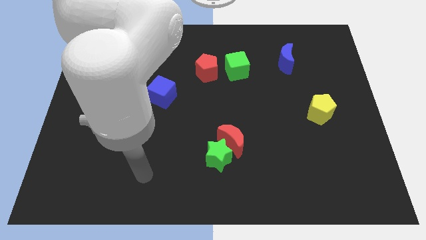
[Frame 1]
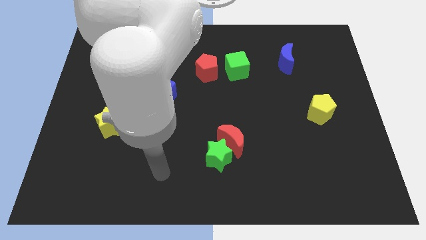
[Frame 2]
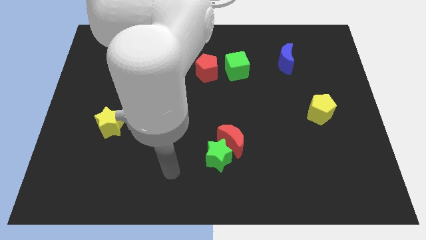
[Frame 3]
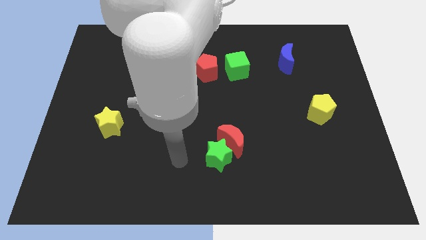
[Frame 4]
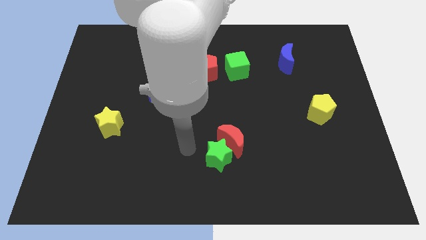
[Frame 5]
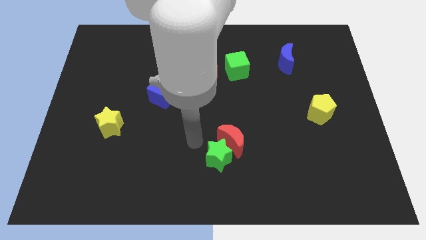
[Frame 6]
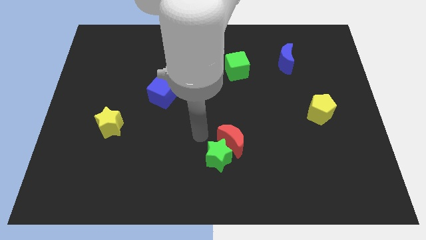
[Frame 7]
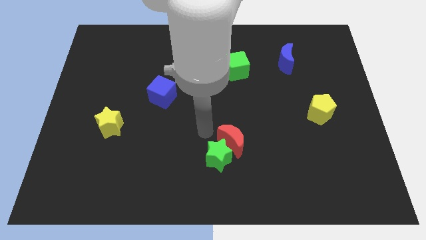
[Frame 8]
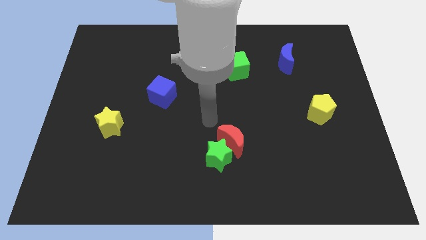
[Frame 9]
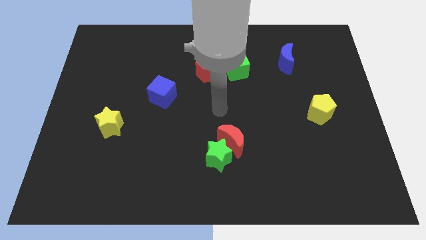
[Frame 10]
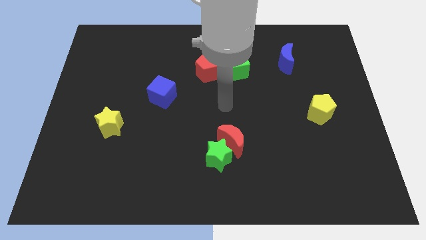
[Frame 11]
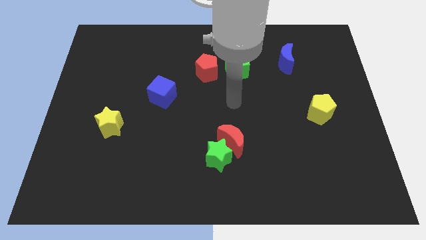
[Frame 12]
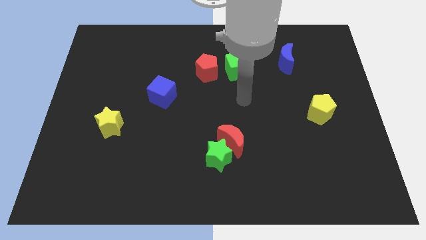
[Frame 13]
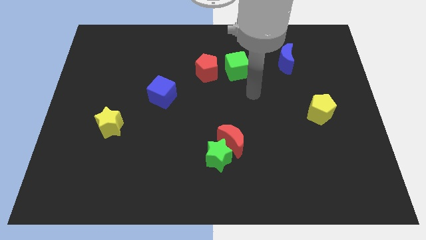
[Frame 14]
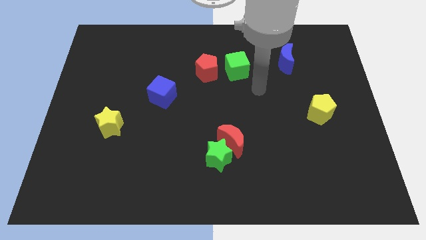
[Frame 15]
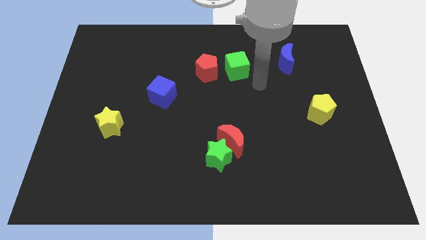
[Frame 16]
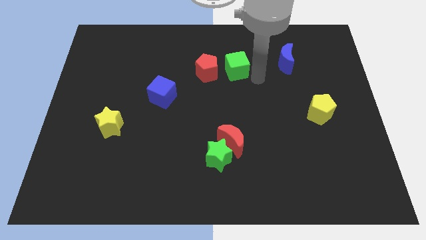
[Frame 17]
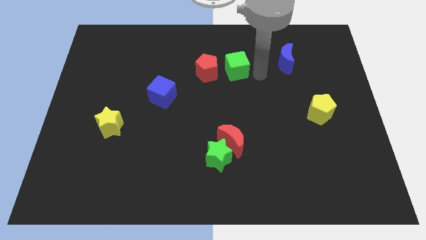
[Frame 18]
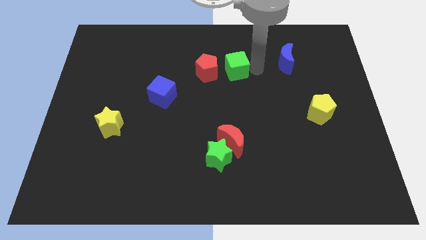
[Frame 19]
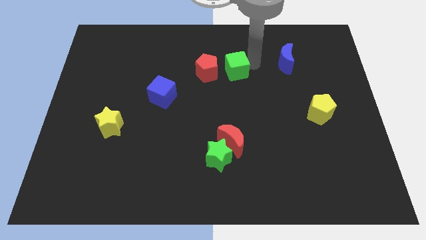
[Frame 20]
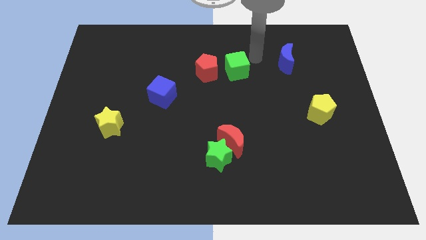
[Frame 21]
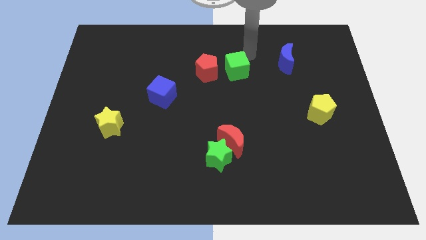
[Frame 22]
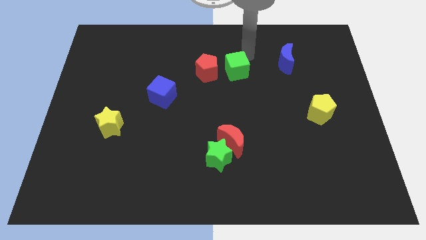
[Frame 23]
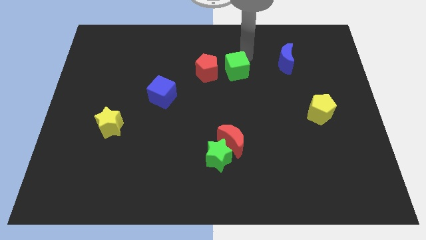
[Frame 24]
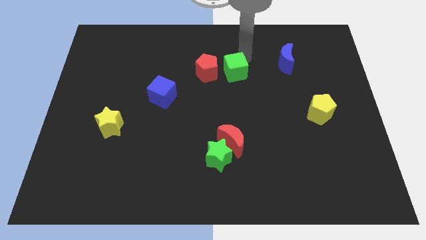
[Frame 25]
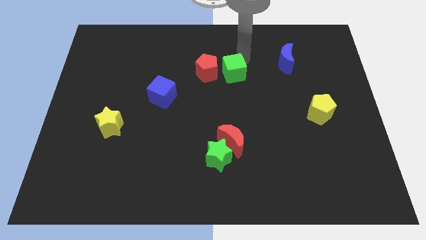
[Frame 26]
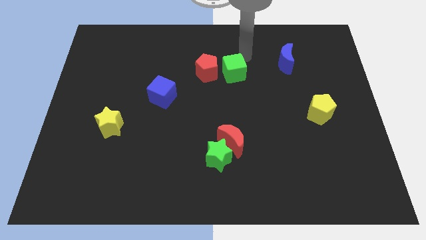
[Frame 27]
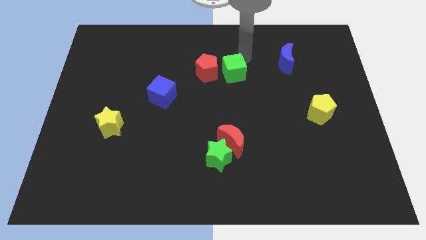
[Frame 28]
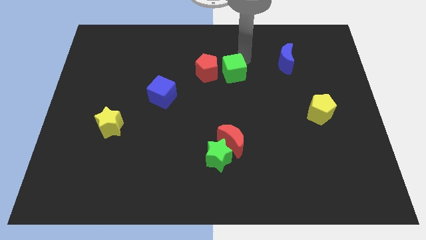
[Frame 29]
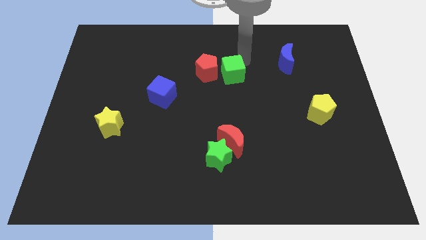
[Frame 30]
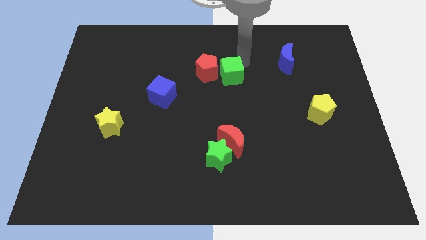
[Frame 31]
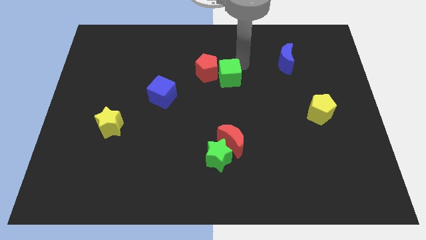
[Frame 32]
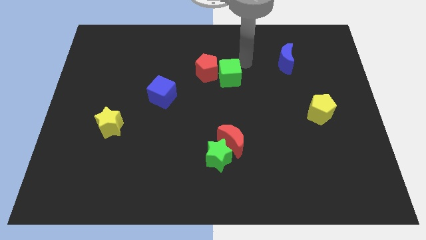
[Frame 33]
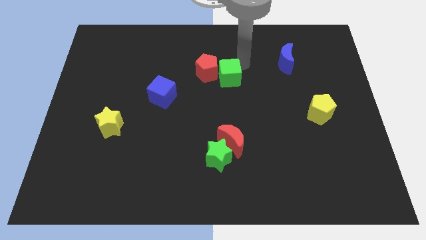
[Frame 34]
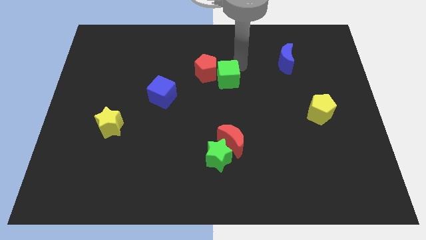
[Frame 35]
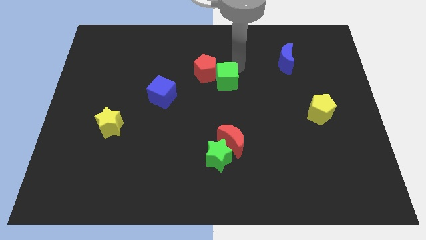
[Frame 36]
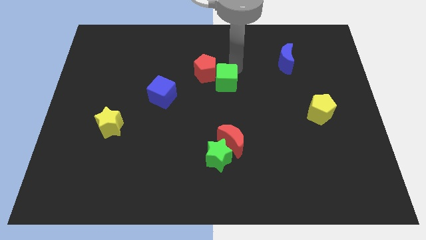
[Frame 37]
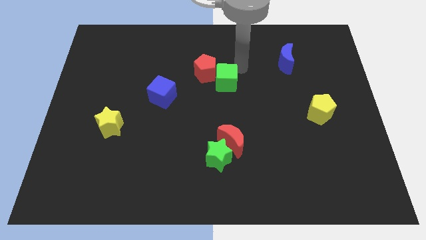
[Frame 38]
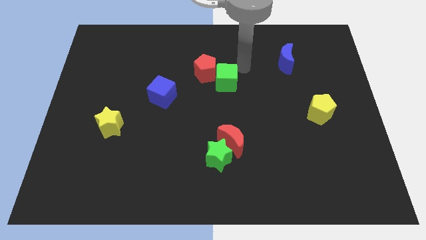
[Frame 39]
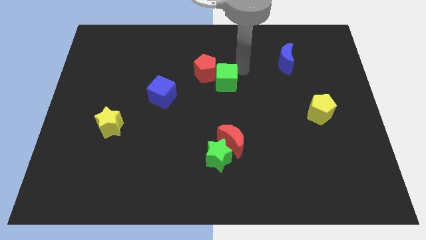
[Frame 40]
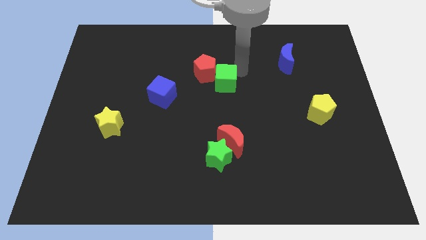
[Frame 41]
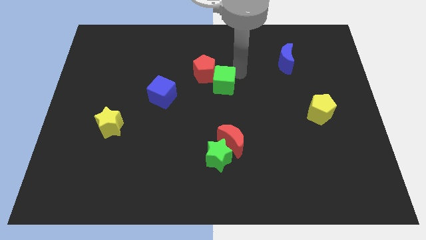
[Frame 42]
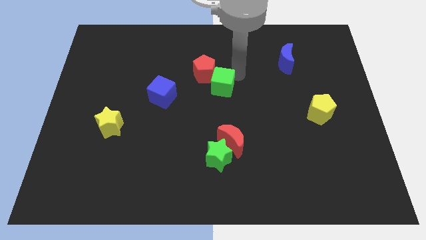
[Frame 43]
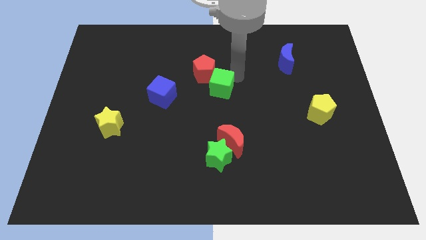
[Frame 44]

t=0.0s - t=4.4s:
slide the green cube somewhat downwards and left diagonally

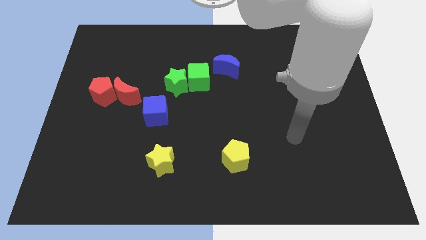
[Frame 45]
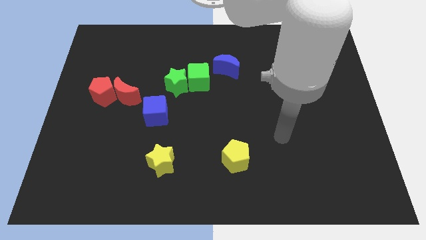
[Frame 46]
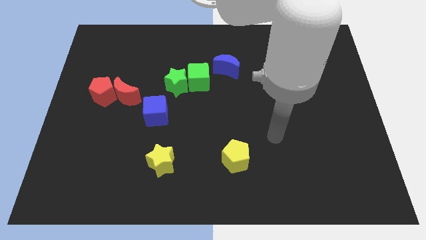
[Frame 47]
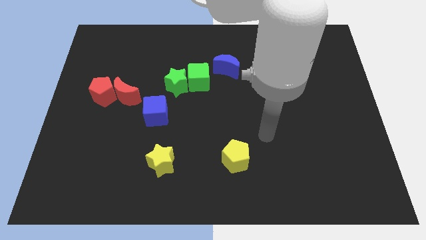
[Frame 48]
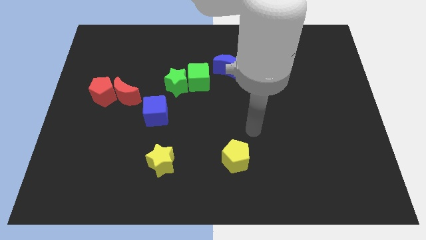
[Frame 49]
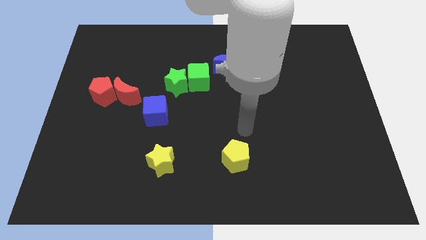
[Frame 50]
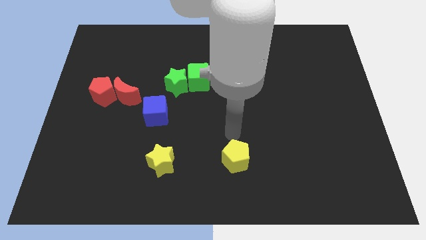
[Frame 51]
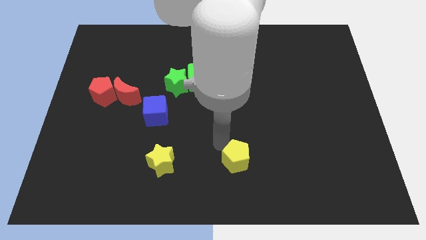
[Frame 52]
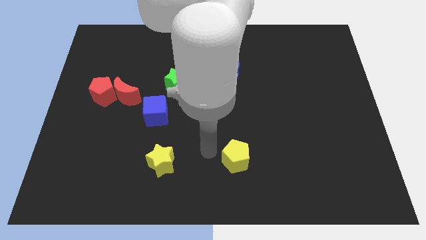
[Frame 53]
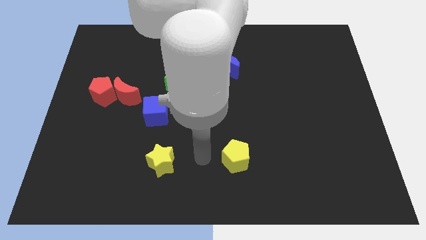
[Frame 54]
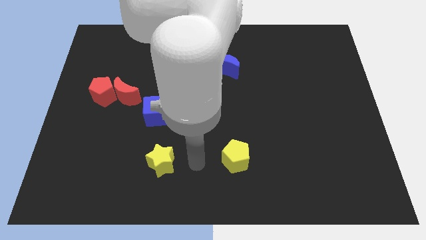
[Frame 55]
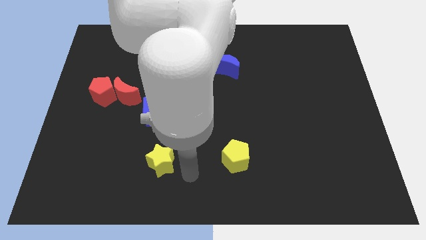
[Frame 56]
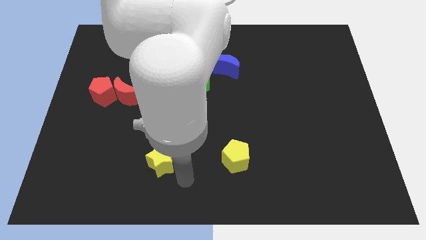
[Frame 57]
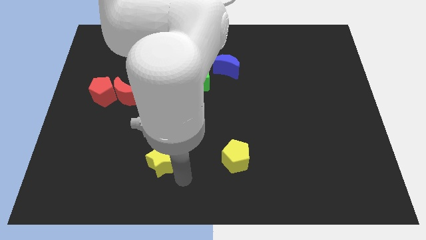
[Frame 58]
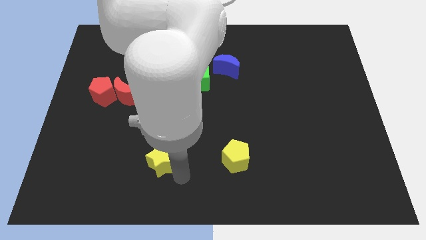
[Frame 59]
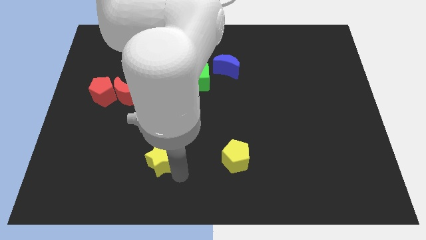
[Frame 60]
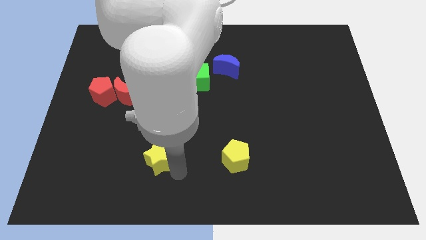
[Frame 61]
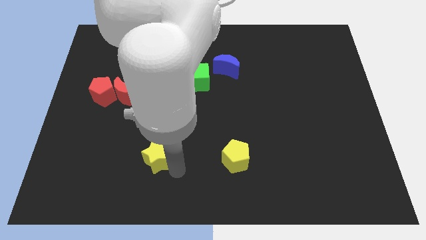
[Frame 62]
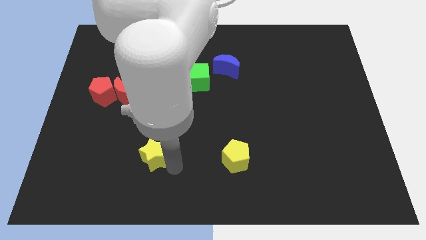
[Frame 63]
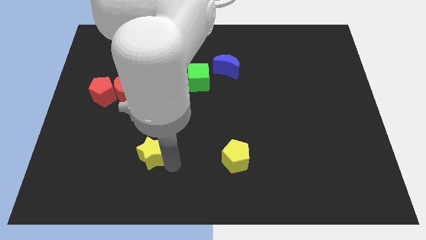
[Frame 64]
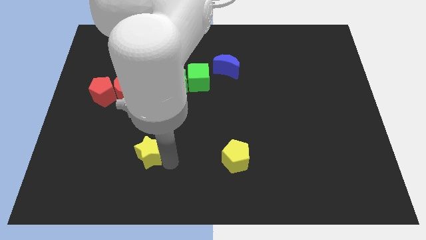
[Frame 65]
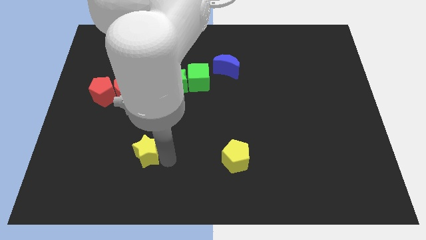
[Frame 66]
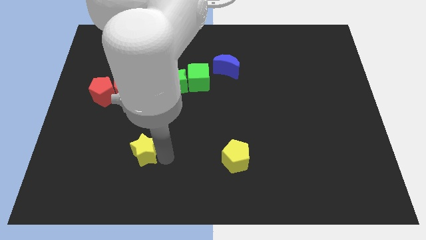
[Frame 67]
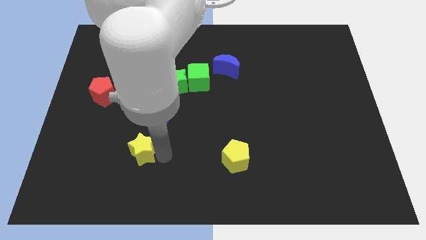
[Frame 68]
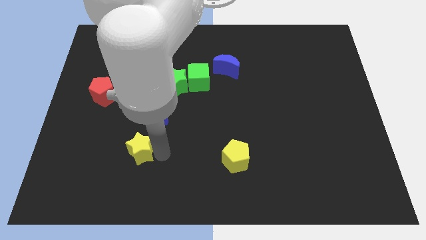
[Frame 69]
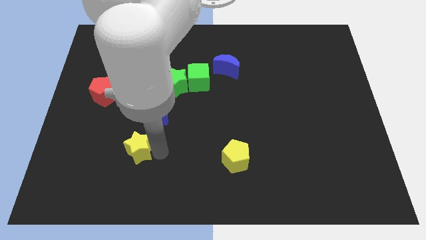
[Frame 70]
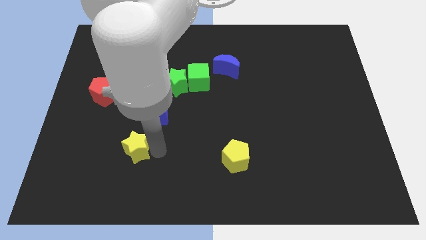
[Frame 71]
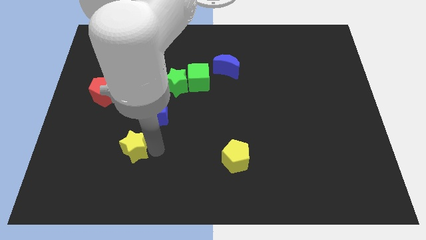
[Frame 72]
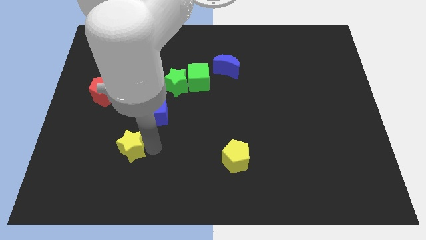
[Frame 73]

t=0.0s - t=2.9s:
slightly push the yellow star diagonally up and left

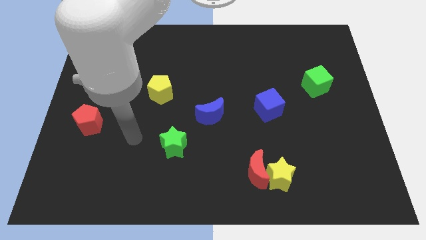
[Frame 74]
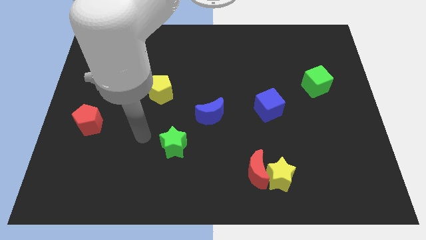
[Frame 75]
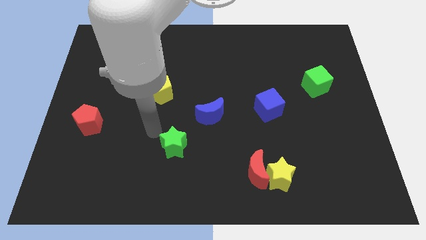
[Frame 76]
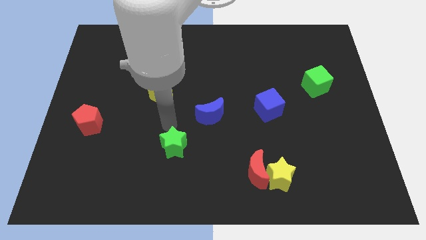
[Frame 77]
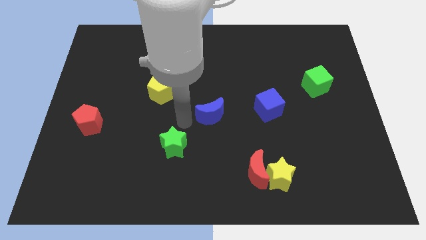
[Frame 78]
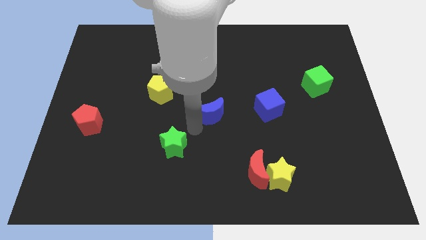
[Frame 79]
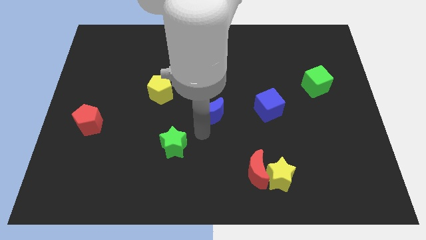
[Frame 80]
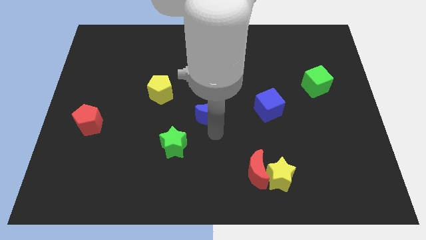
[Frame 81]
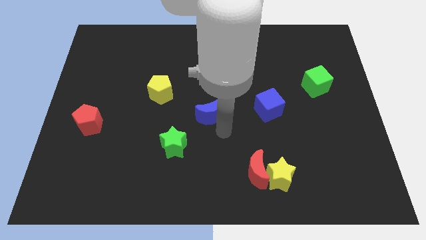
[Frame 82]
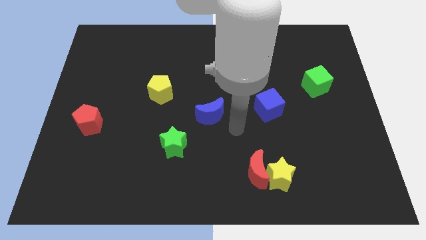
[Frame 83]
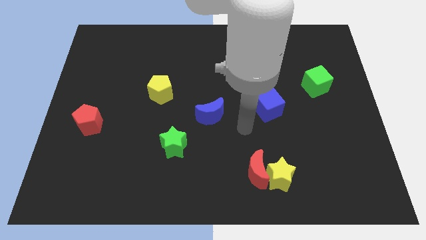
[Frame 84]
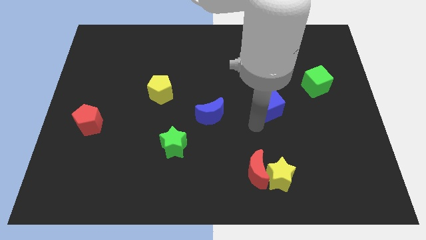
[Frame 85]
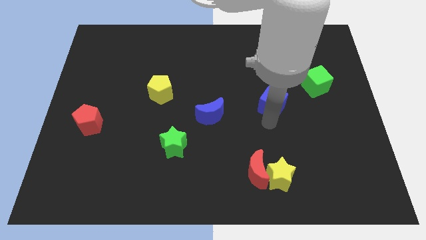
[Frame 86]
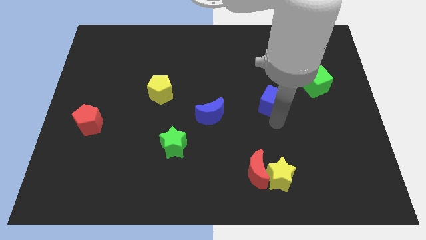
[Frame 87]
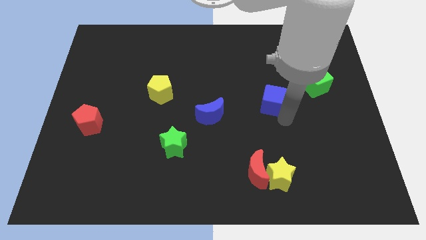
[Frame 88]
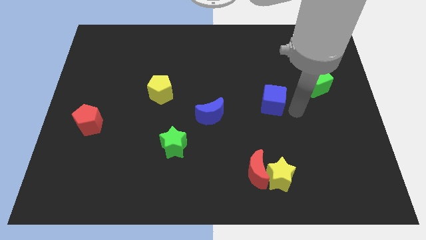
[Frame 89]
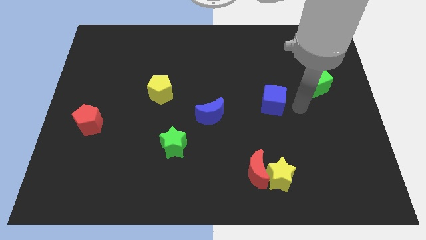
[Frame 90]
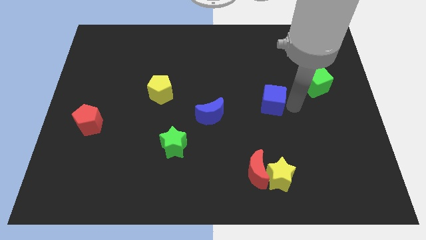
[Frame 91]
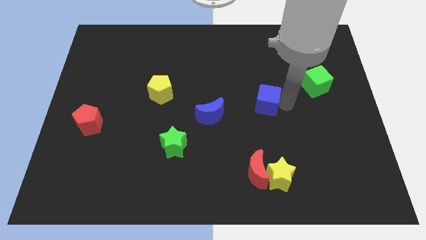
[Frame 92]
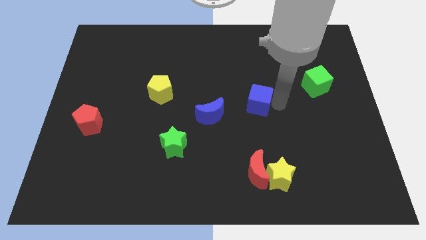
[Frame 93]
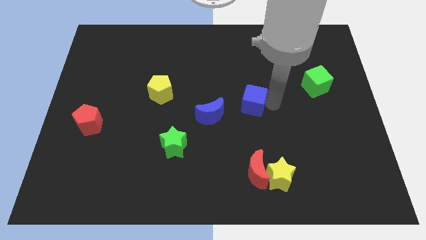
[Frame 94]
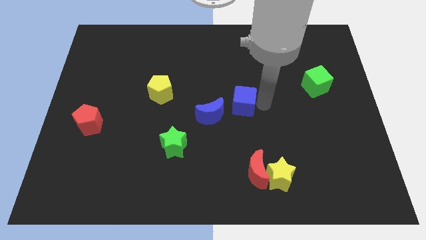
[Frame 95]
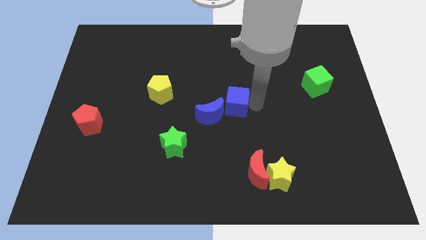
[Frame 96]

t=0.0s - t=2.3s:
slightly move the blue cube to the left
